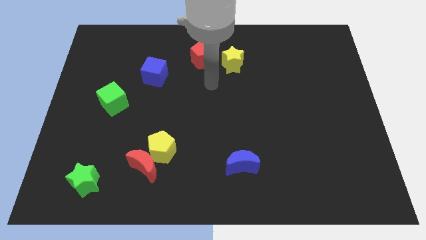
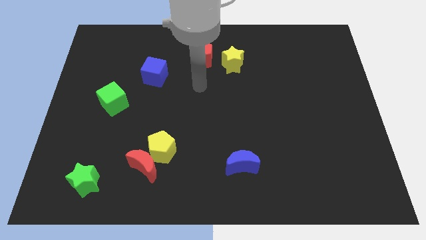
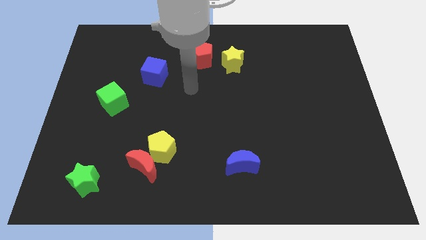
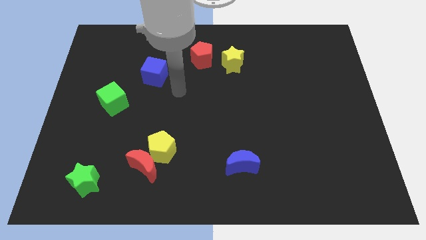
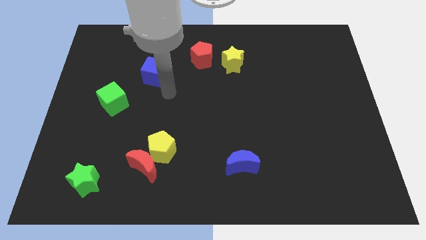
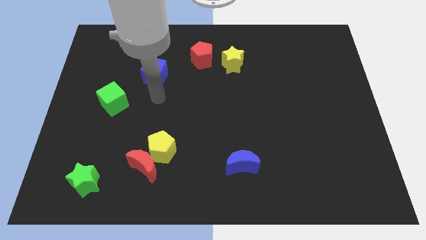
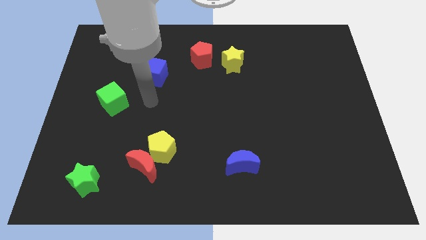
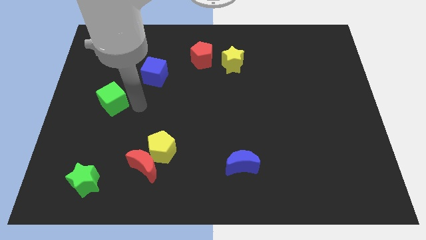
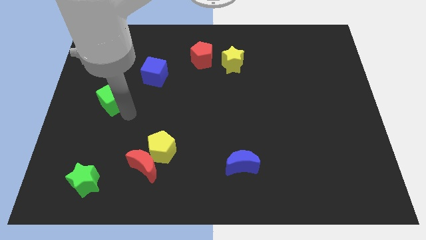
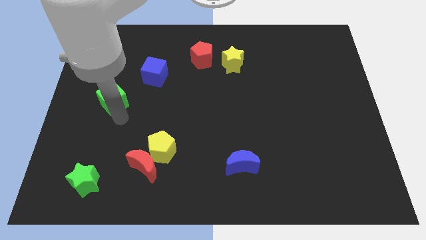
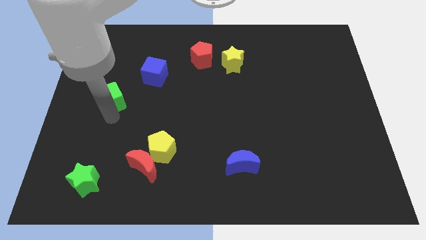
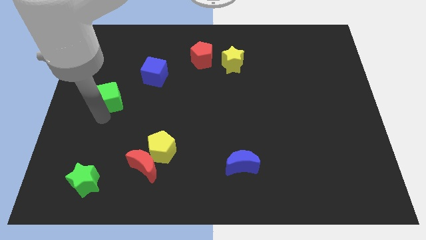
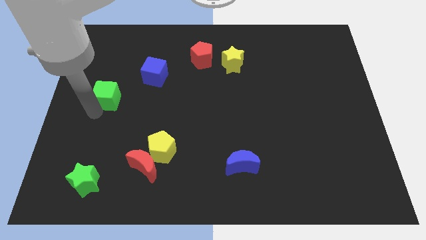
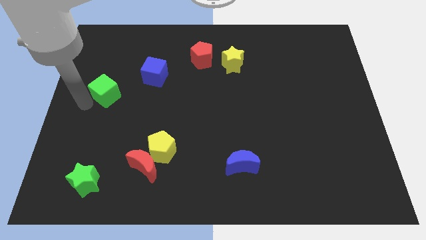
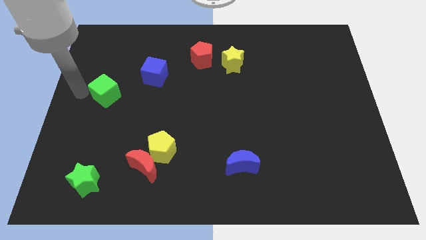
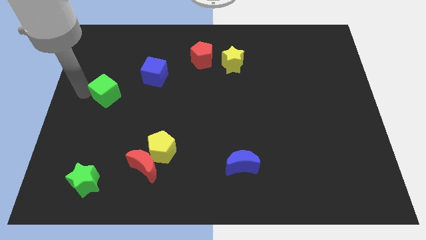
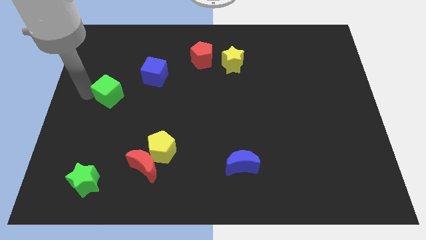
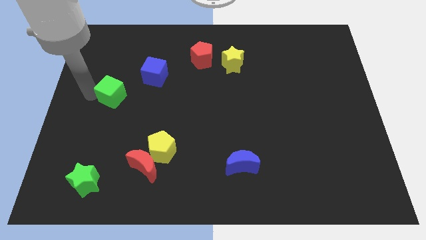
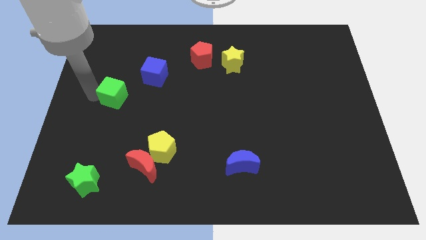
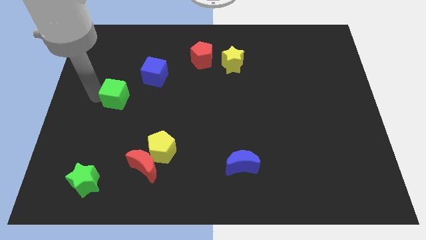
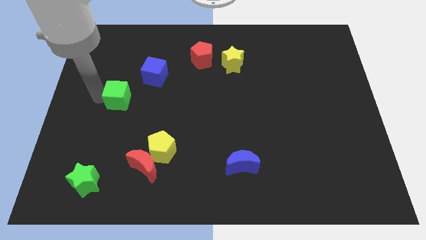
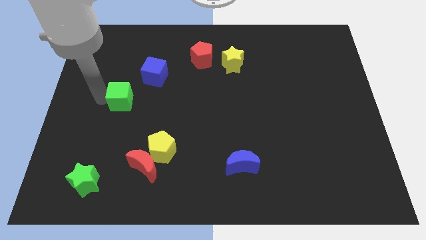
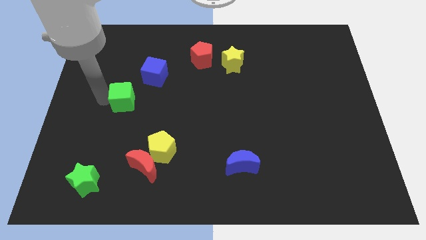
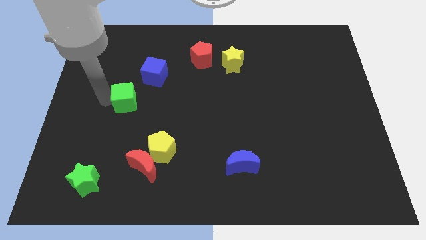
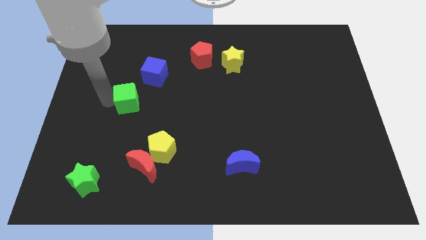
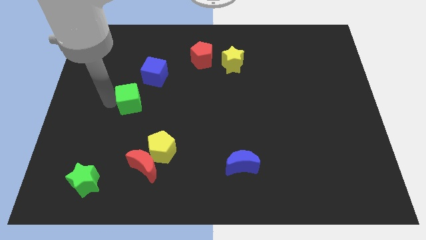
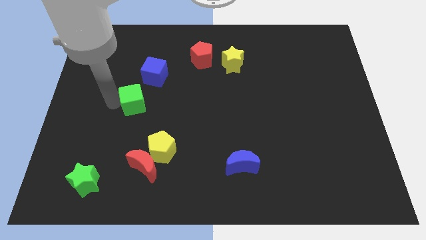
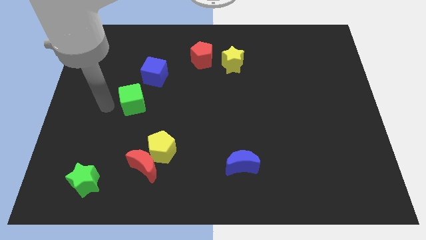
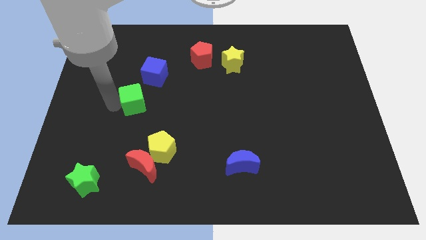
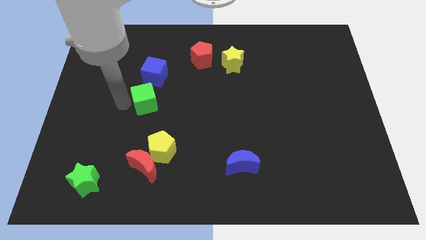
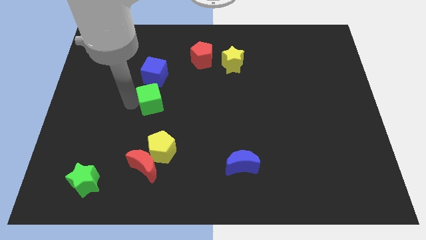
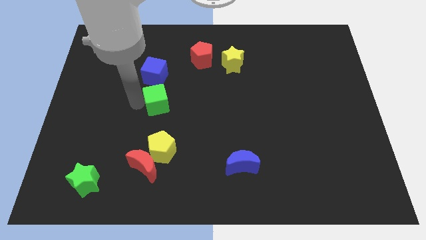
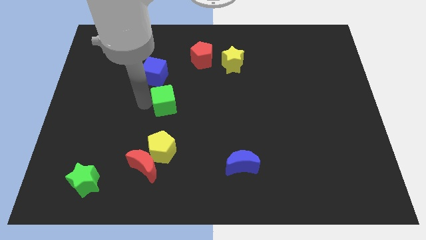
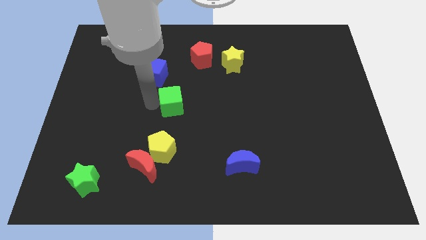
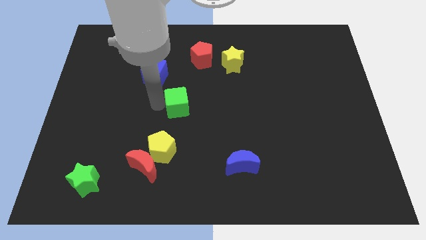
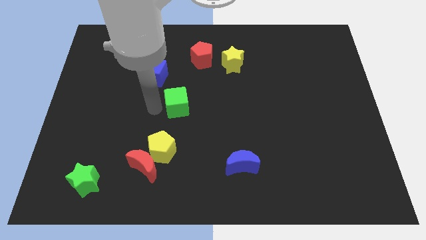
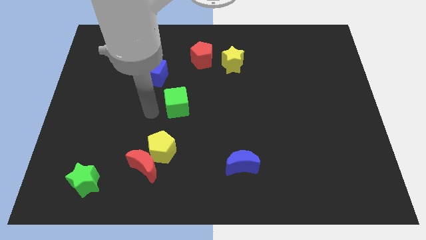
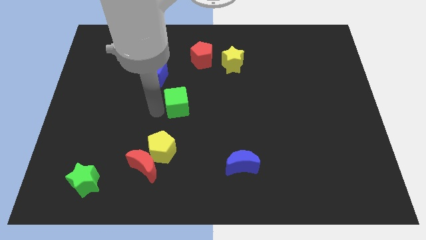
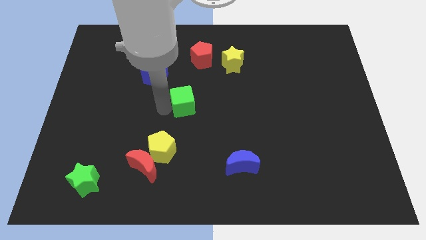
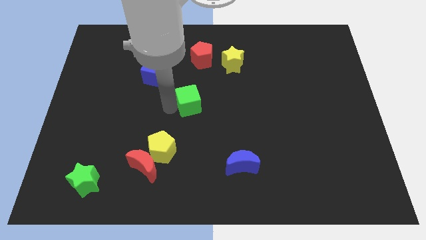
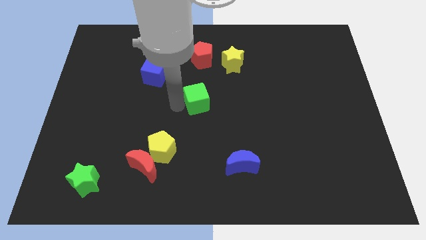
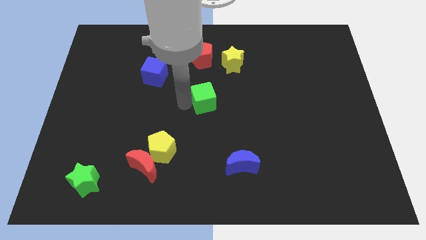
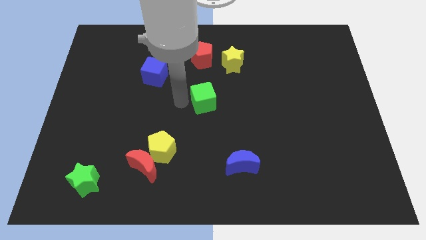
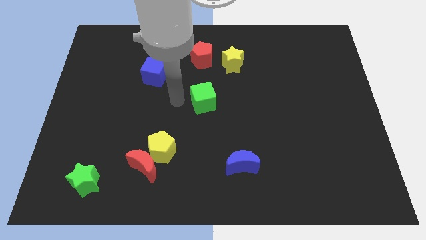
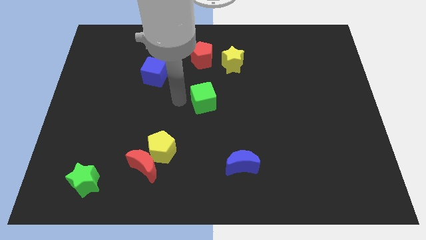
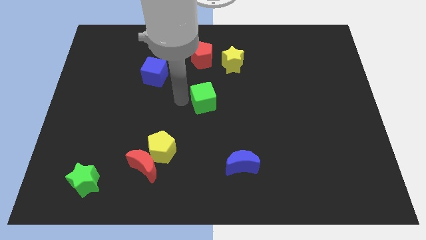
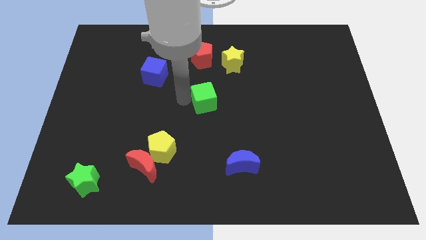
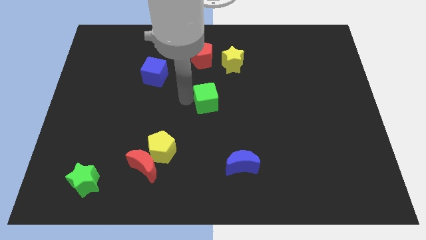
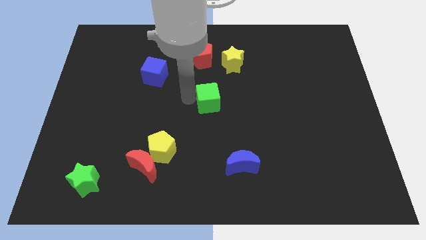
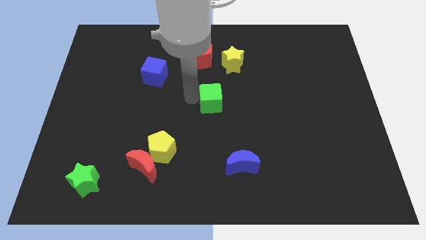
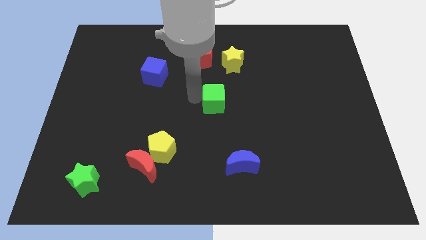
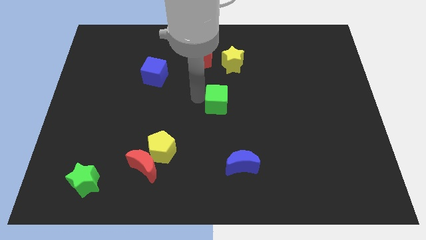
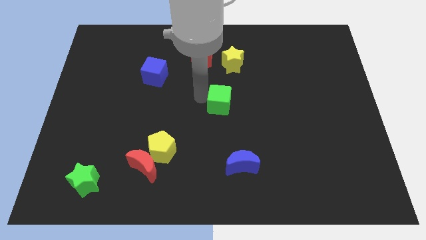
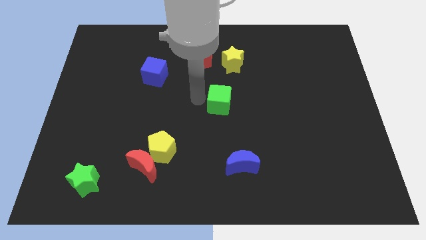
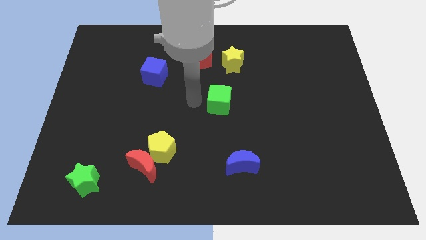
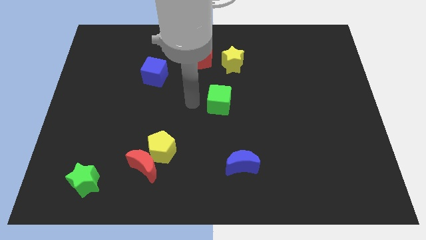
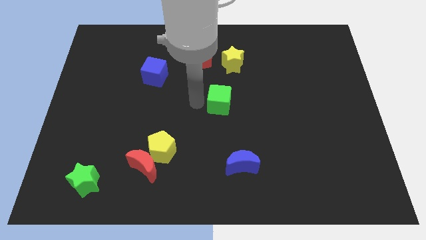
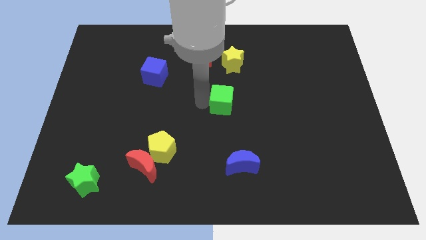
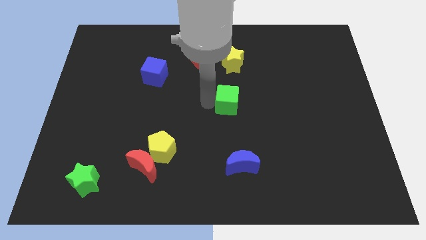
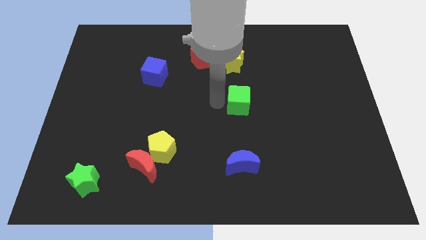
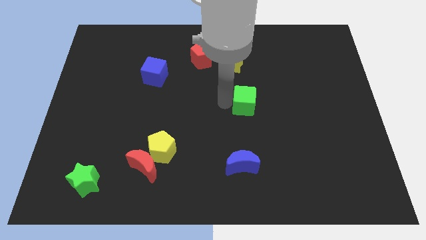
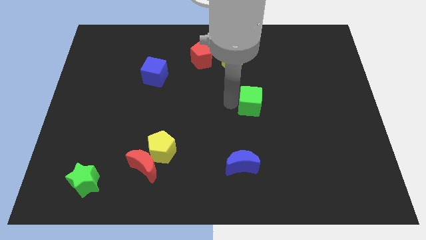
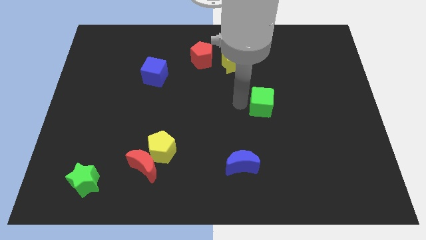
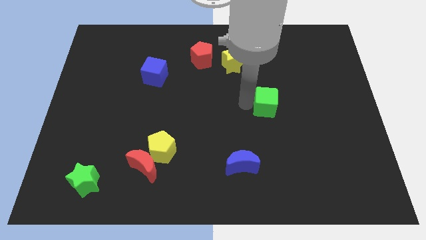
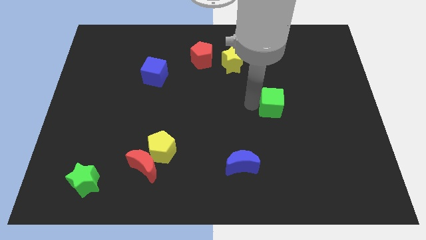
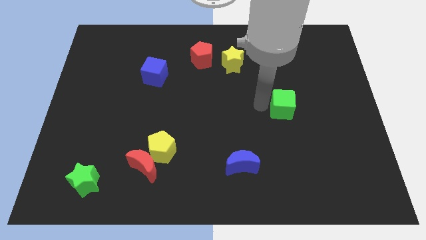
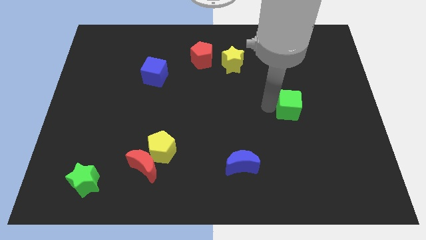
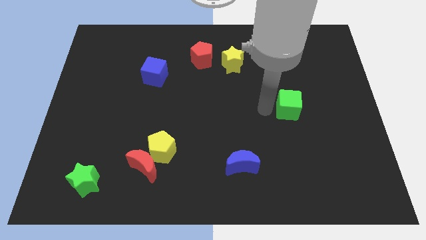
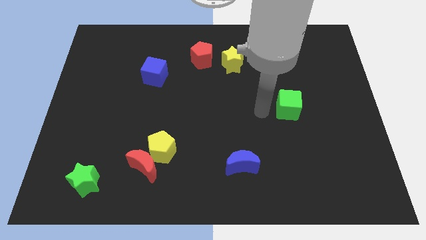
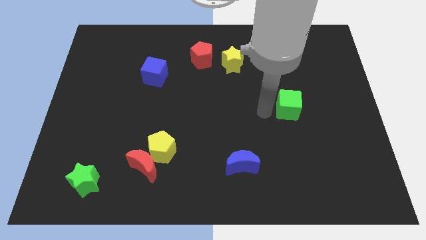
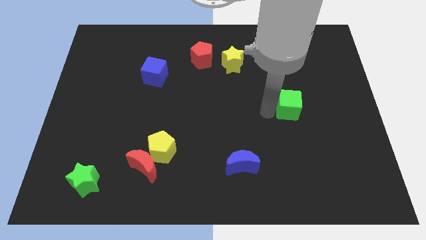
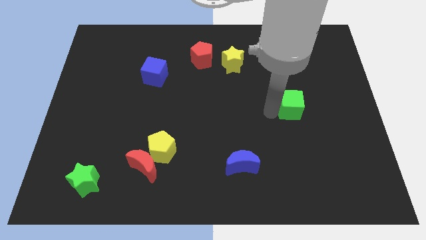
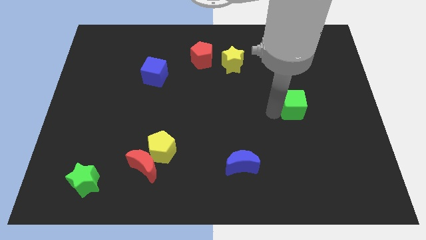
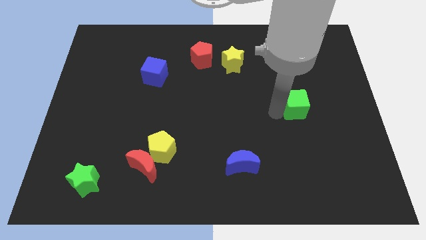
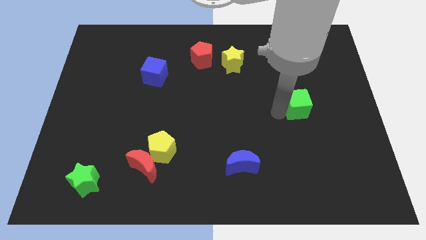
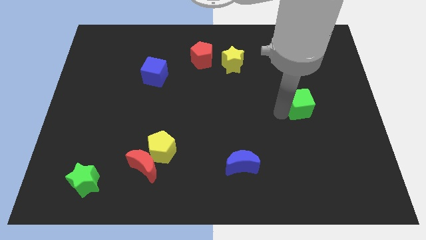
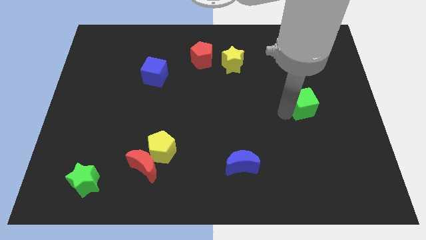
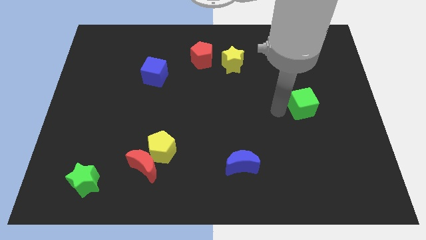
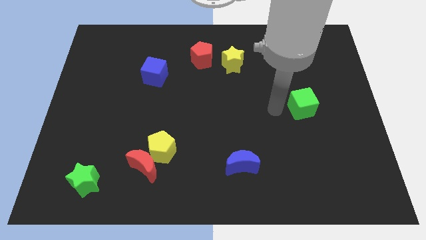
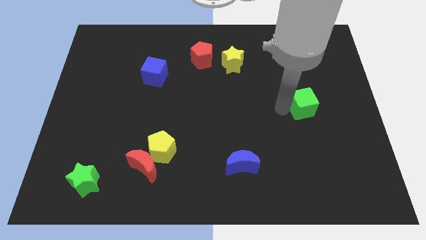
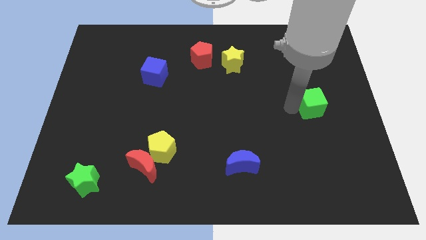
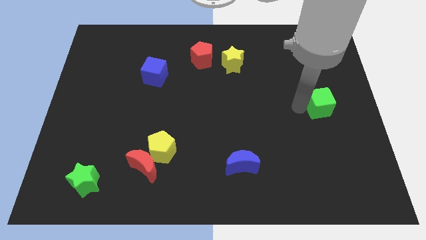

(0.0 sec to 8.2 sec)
slide the green cube to the right side
